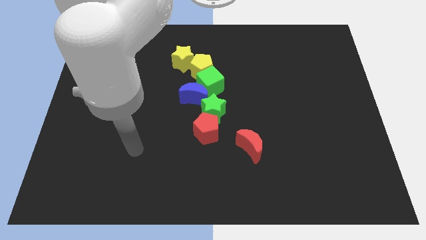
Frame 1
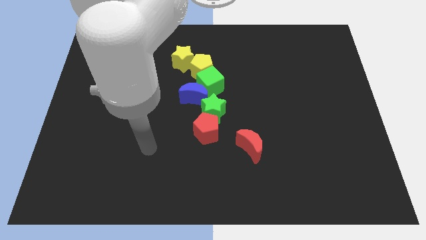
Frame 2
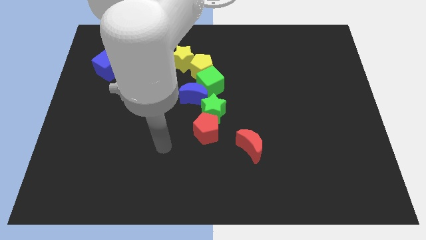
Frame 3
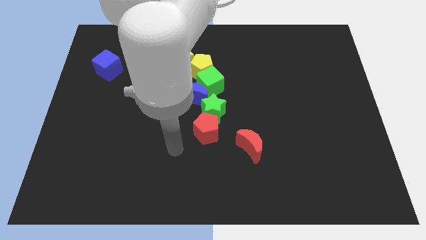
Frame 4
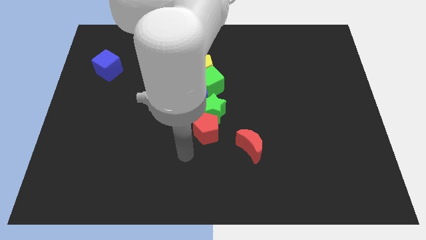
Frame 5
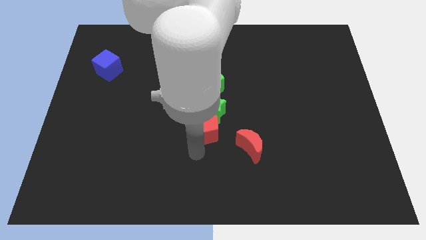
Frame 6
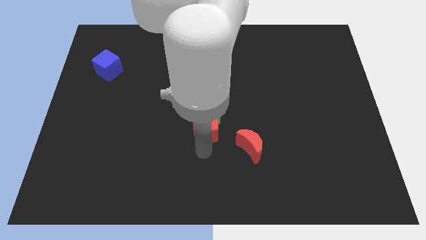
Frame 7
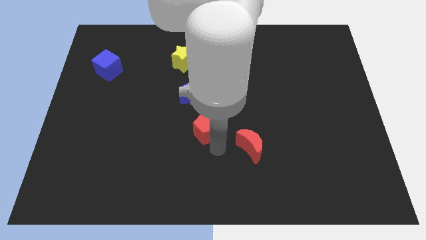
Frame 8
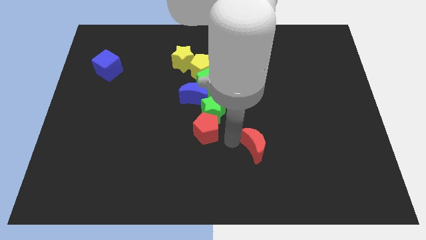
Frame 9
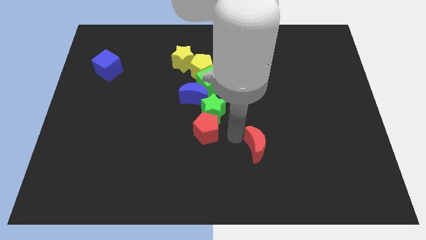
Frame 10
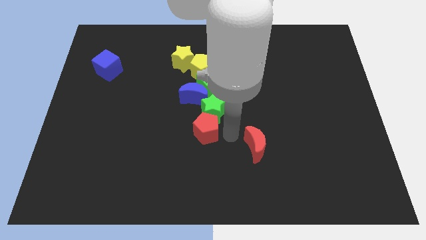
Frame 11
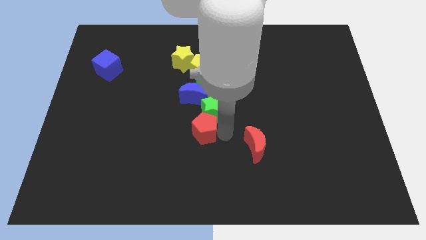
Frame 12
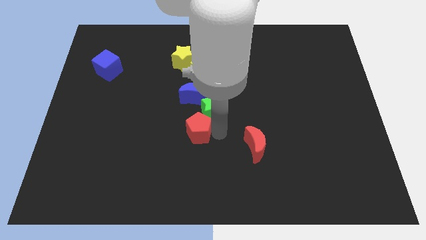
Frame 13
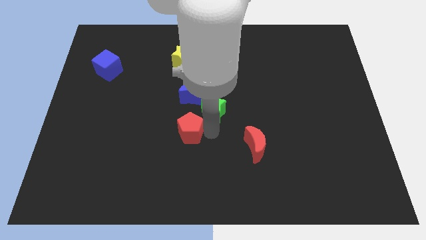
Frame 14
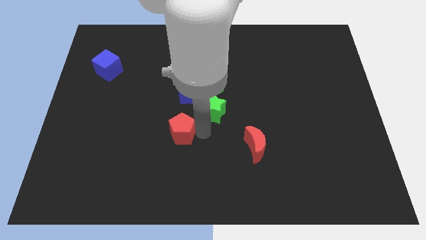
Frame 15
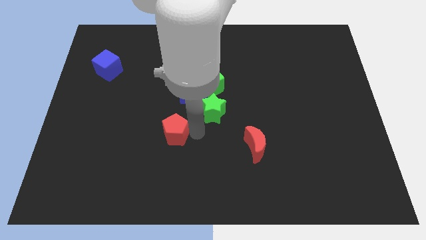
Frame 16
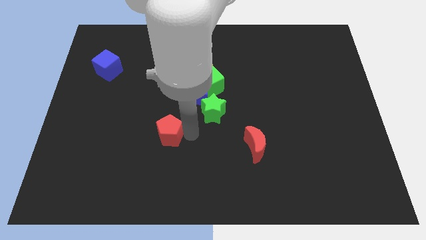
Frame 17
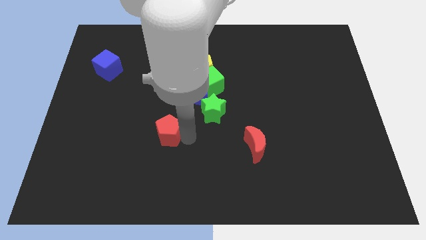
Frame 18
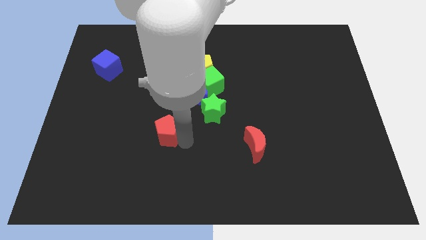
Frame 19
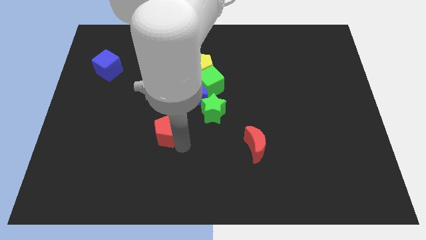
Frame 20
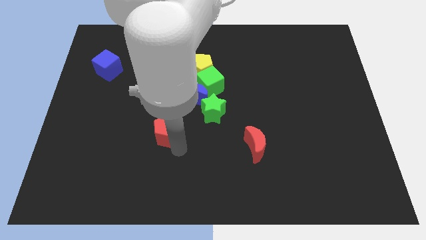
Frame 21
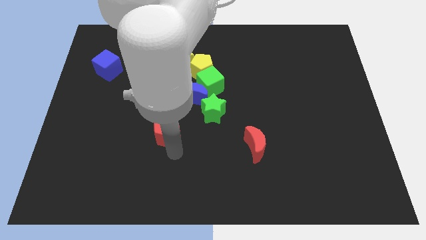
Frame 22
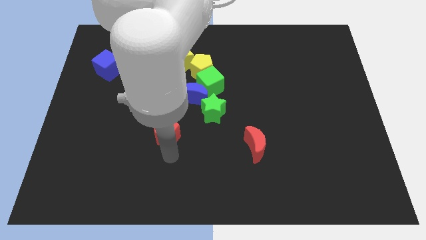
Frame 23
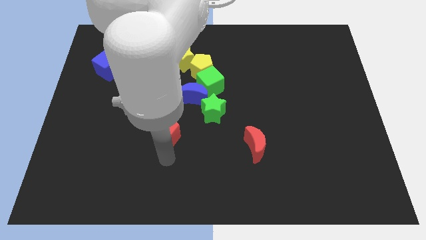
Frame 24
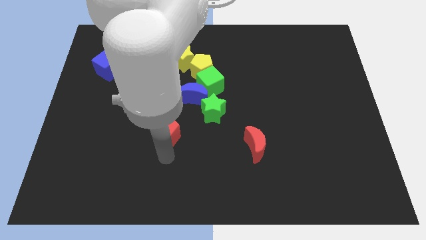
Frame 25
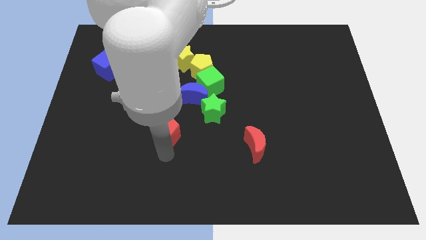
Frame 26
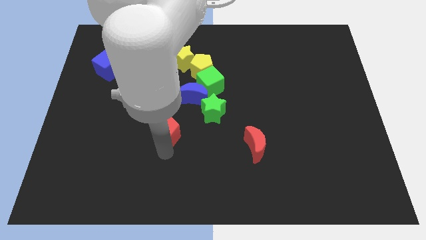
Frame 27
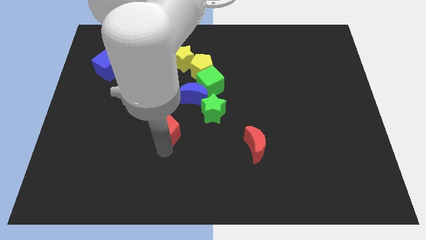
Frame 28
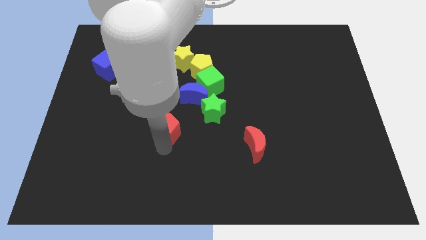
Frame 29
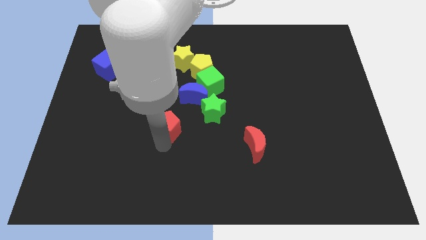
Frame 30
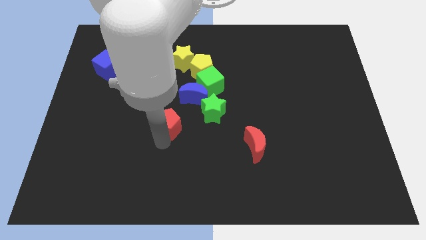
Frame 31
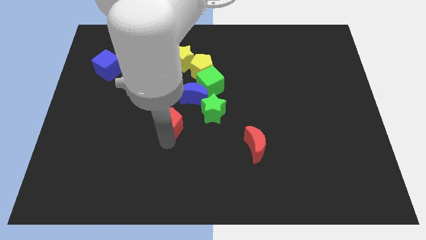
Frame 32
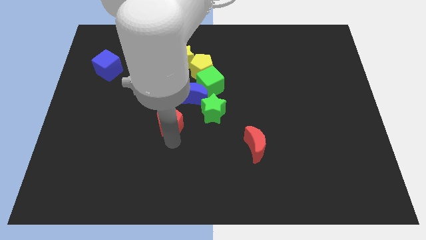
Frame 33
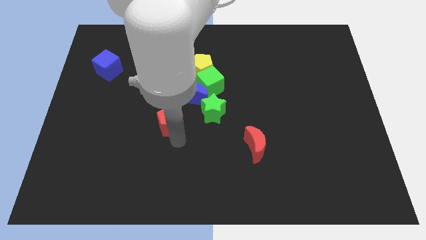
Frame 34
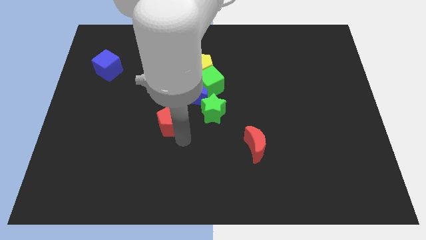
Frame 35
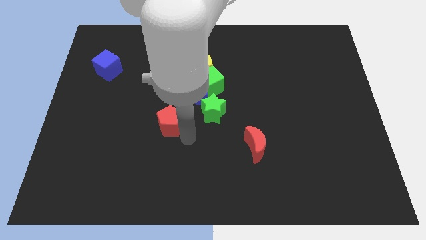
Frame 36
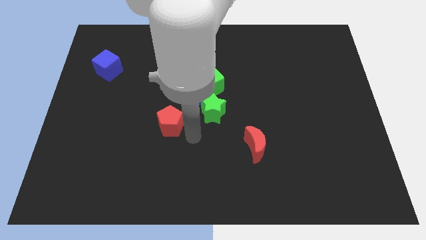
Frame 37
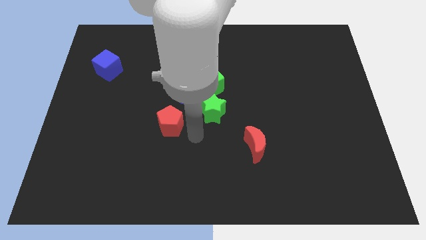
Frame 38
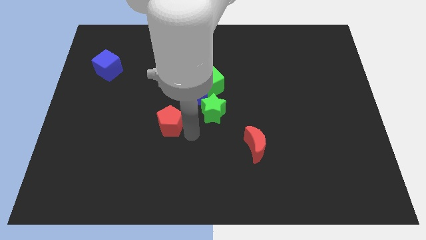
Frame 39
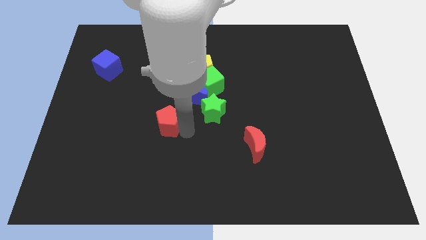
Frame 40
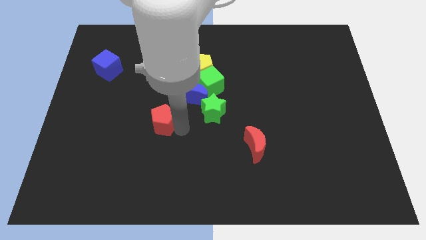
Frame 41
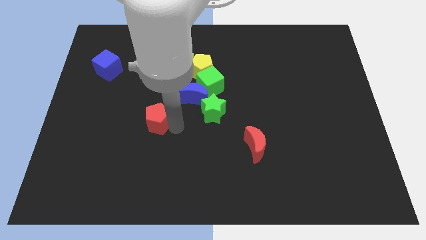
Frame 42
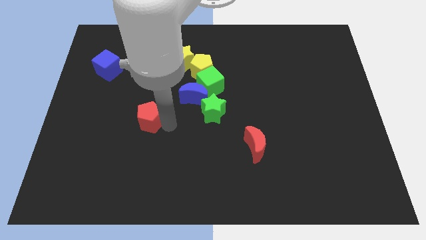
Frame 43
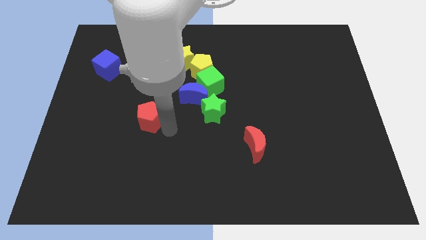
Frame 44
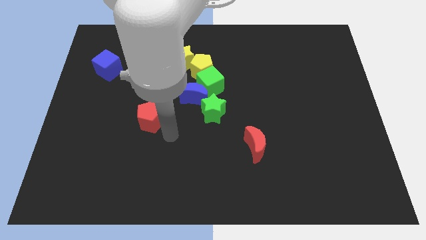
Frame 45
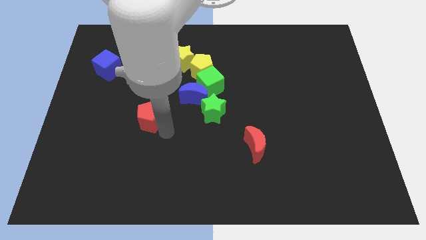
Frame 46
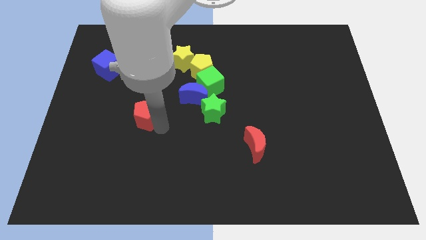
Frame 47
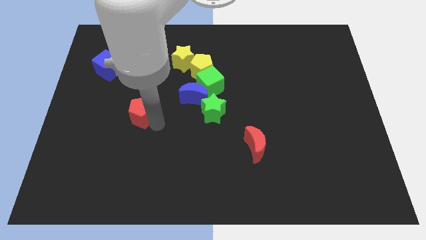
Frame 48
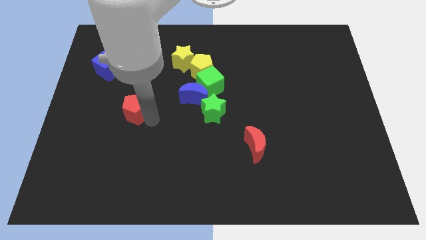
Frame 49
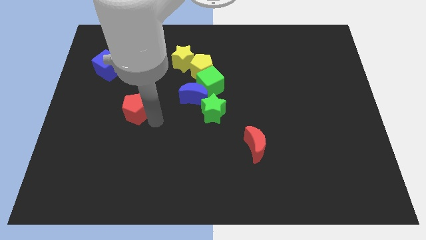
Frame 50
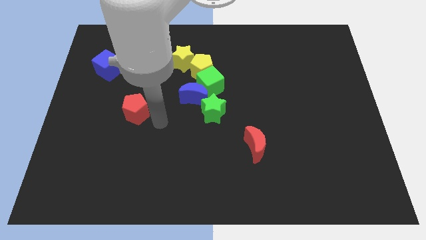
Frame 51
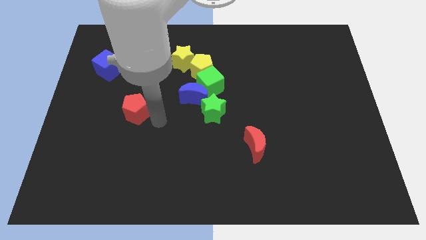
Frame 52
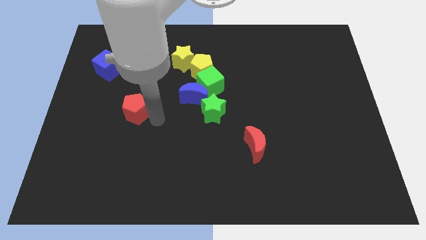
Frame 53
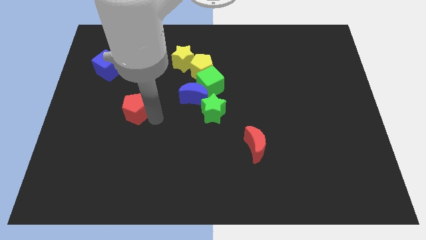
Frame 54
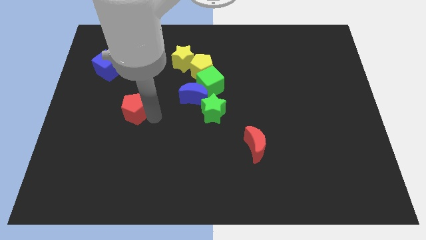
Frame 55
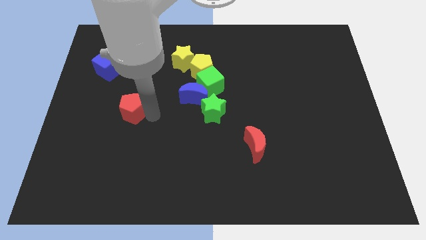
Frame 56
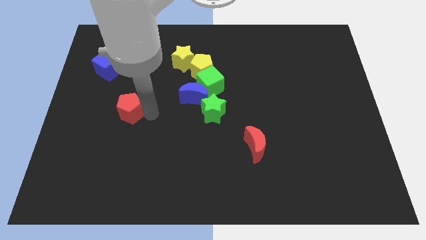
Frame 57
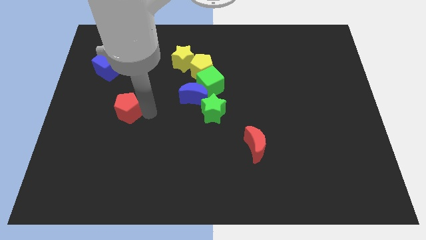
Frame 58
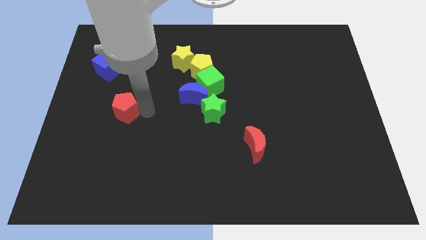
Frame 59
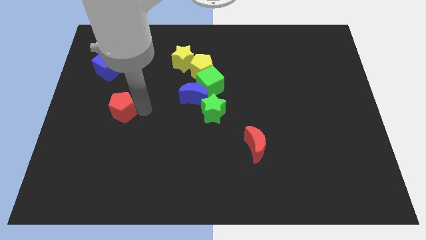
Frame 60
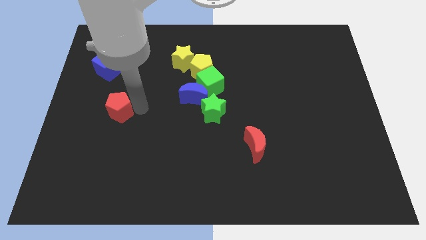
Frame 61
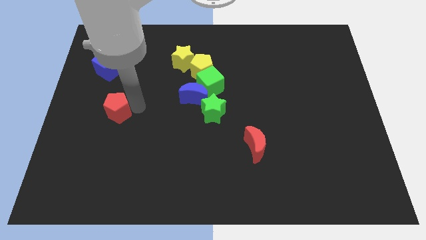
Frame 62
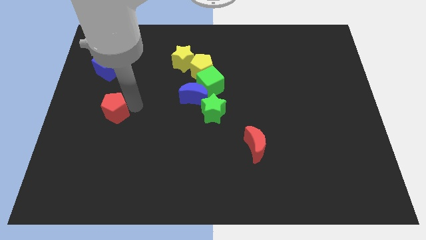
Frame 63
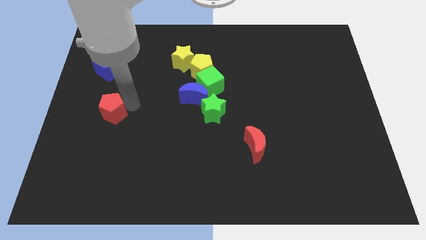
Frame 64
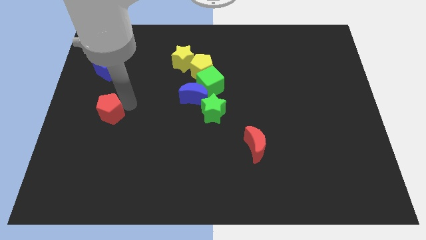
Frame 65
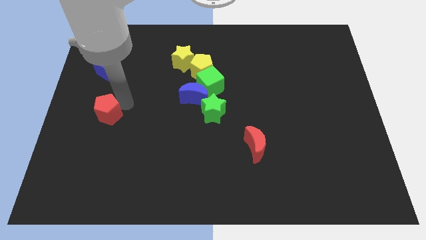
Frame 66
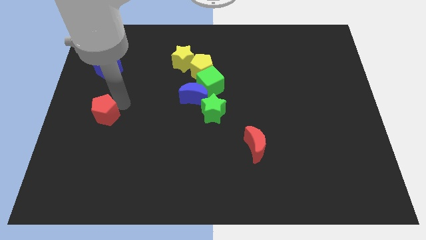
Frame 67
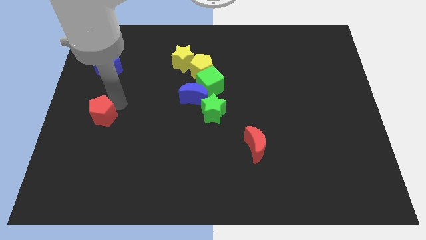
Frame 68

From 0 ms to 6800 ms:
put the red pentagon to the center left
